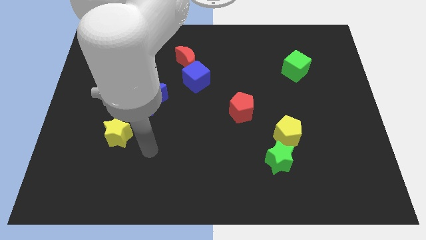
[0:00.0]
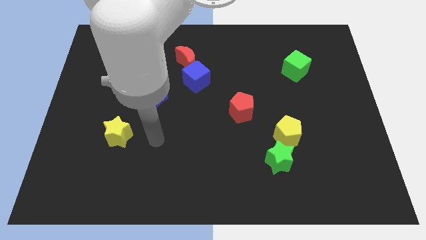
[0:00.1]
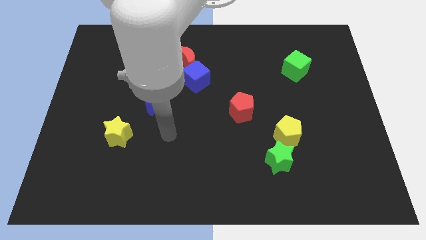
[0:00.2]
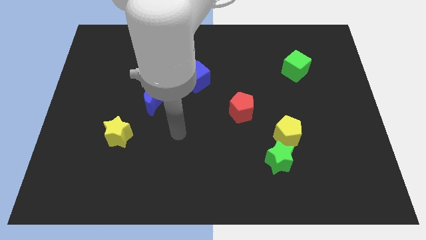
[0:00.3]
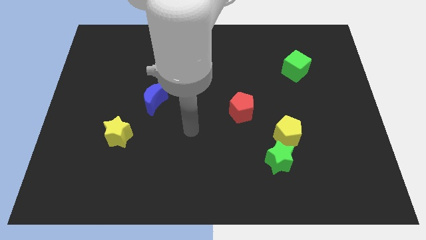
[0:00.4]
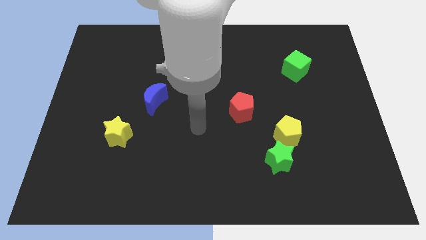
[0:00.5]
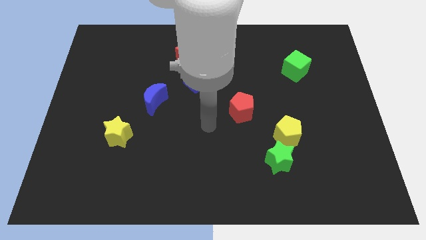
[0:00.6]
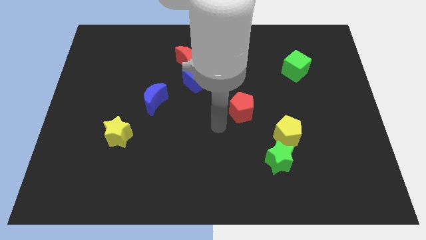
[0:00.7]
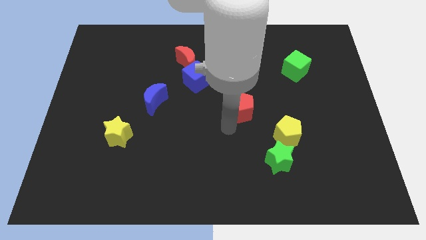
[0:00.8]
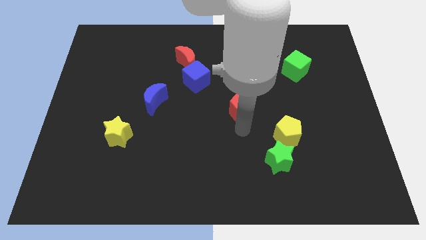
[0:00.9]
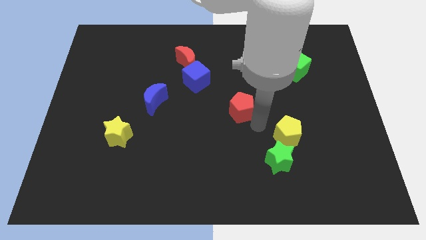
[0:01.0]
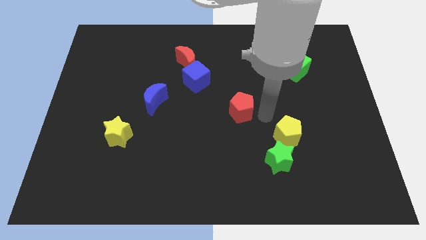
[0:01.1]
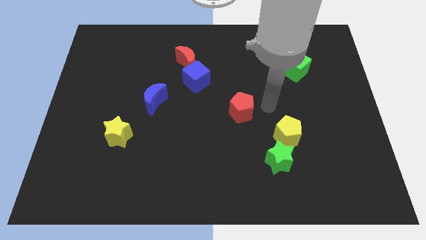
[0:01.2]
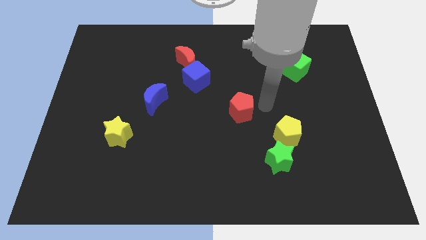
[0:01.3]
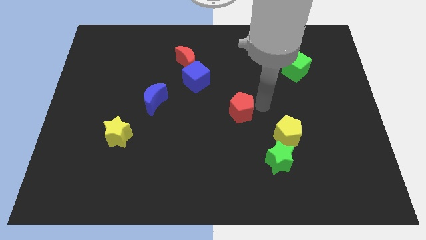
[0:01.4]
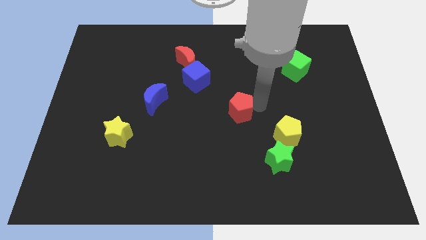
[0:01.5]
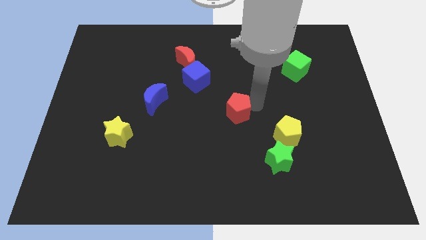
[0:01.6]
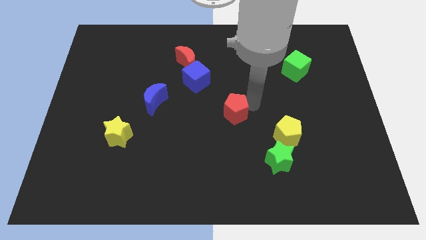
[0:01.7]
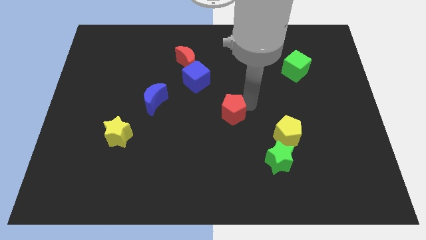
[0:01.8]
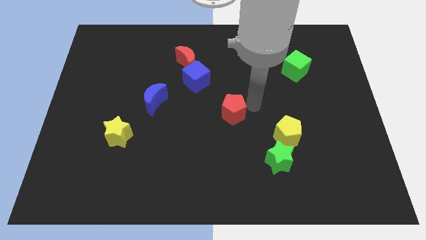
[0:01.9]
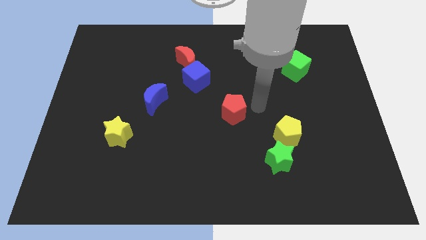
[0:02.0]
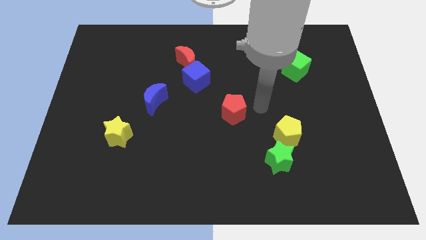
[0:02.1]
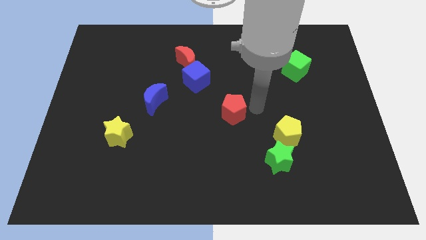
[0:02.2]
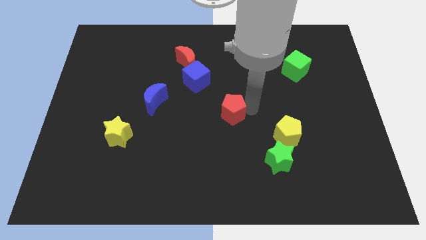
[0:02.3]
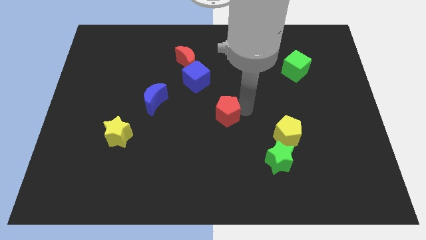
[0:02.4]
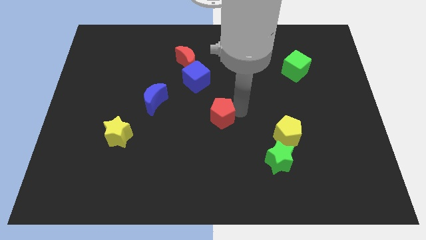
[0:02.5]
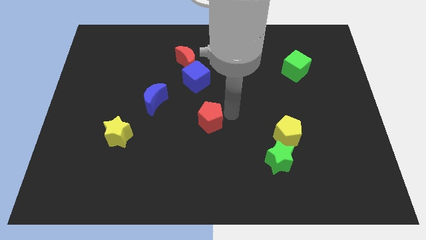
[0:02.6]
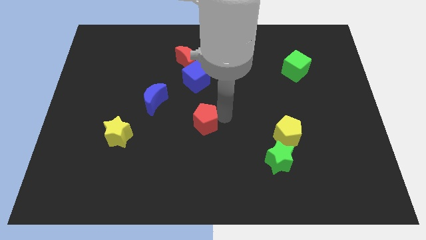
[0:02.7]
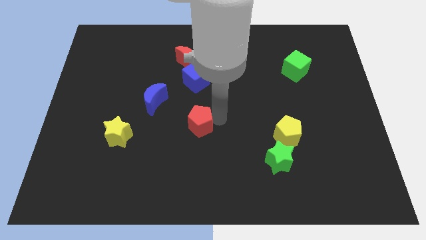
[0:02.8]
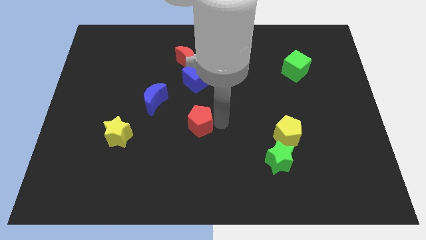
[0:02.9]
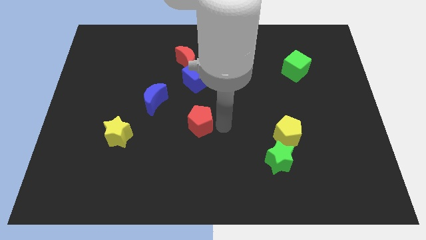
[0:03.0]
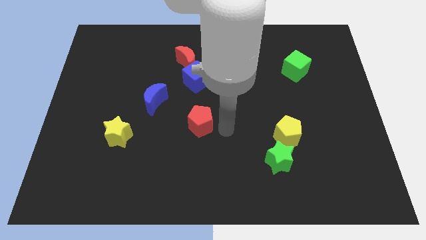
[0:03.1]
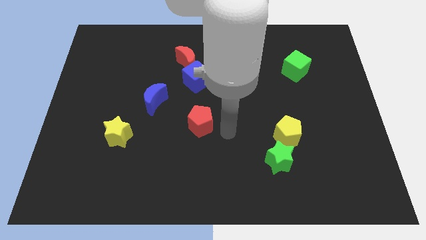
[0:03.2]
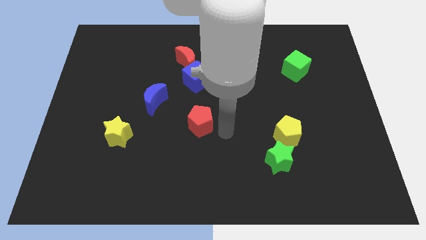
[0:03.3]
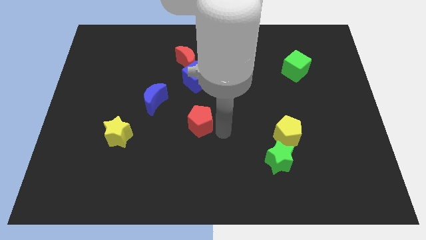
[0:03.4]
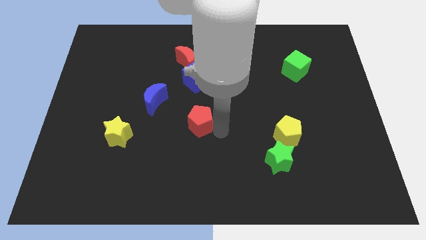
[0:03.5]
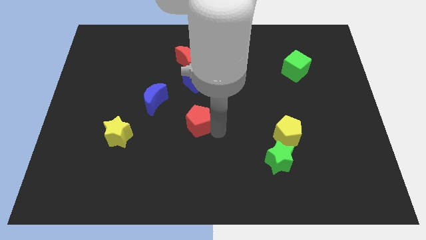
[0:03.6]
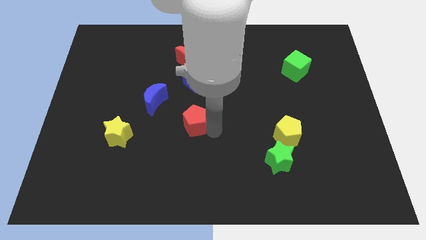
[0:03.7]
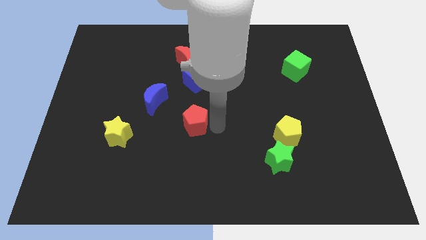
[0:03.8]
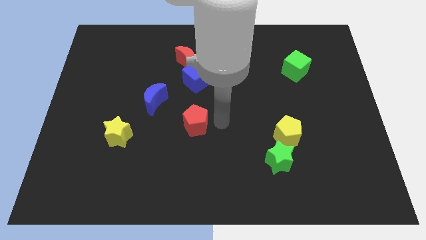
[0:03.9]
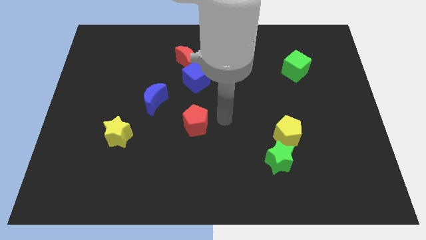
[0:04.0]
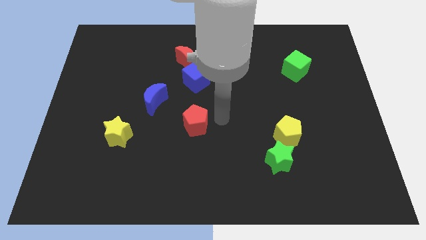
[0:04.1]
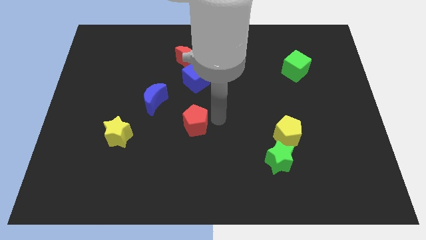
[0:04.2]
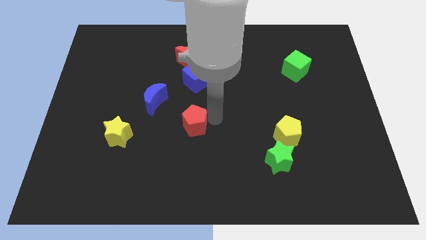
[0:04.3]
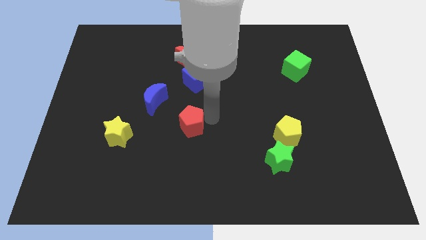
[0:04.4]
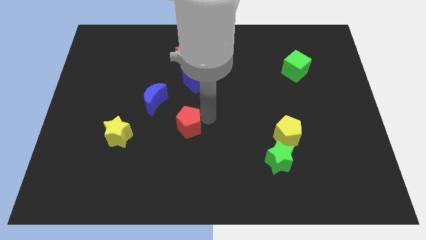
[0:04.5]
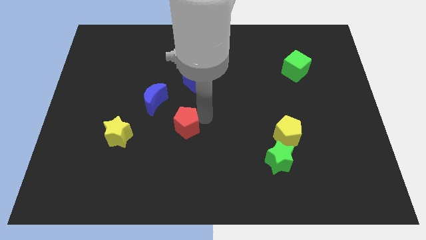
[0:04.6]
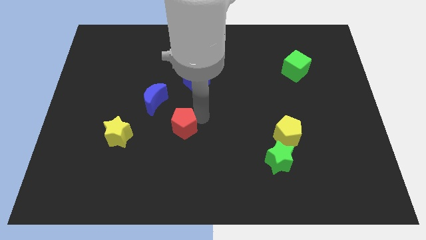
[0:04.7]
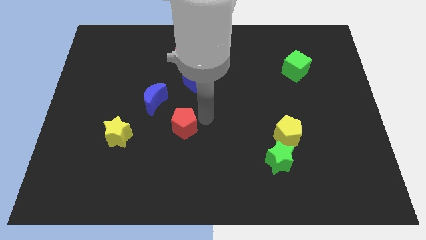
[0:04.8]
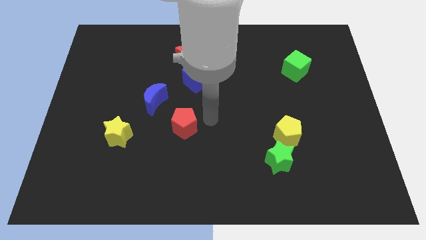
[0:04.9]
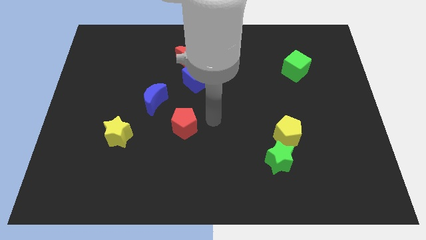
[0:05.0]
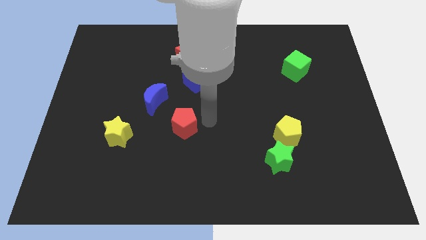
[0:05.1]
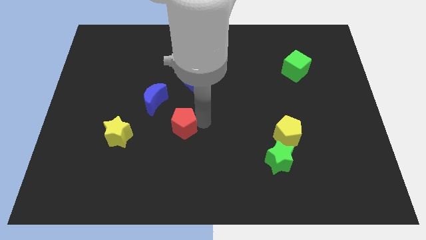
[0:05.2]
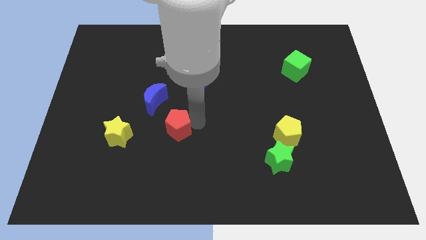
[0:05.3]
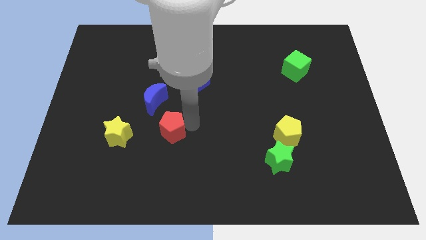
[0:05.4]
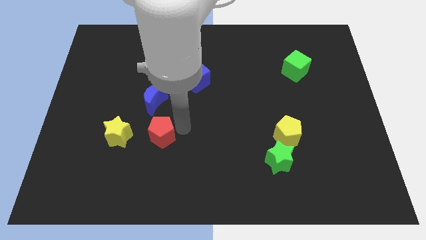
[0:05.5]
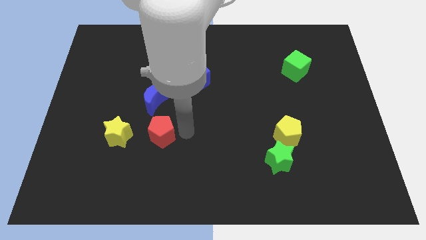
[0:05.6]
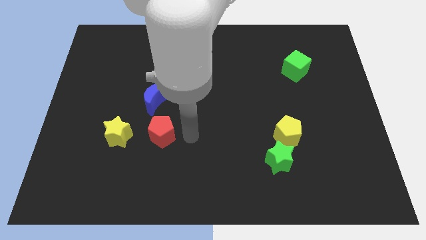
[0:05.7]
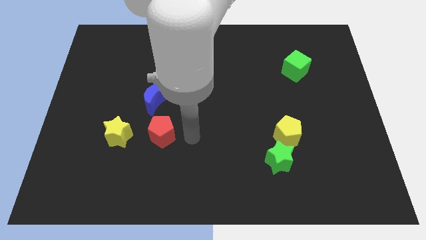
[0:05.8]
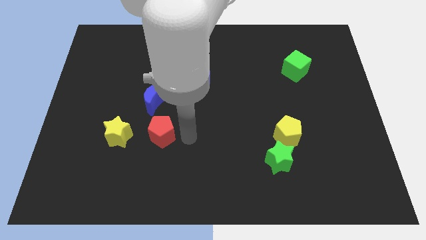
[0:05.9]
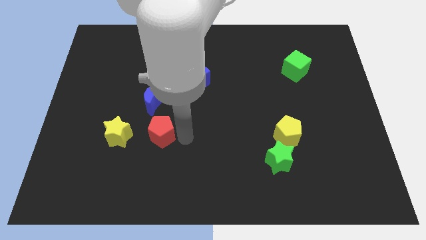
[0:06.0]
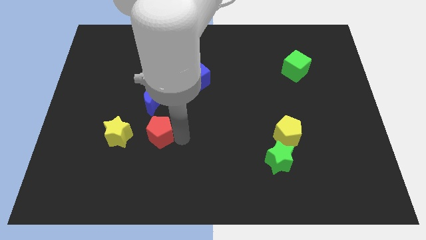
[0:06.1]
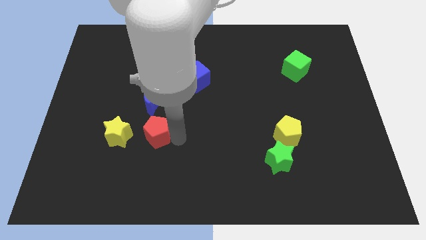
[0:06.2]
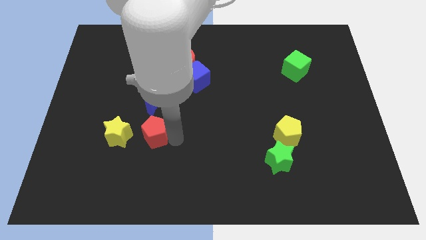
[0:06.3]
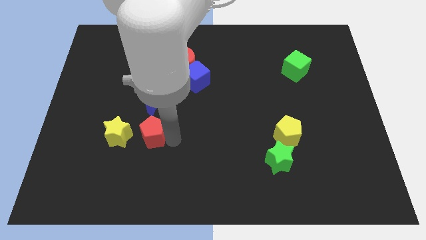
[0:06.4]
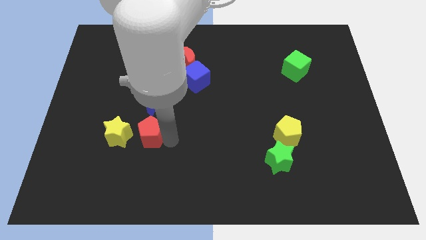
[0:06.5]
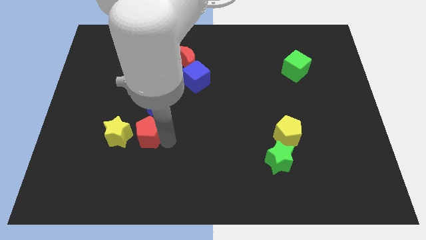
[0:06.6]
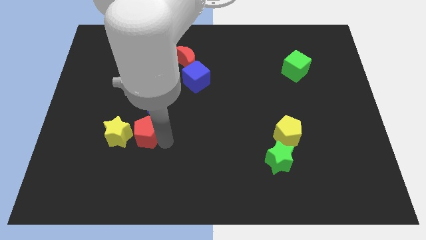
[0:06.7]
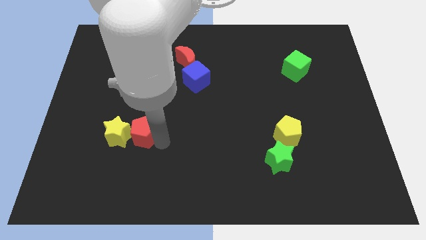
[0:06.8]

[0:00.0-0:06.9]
put the red pentagon to the yellow star

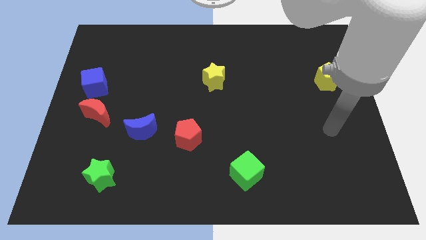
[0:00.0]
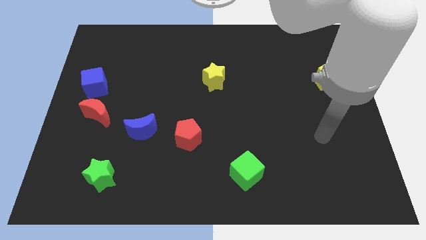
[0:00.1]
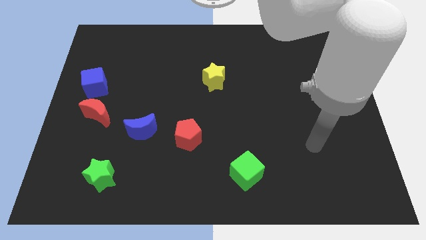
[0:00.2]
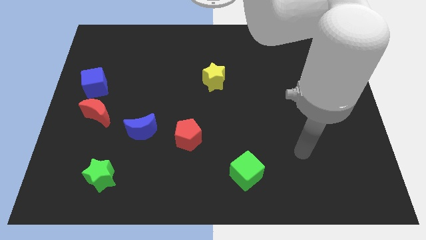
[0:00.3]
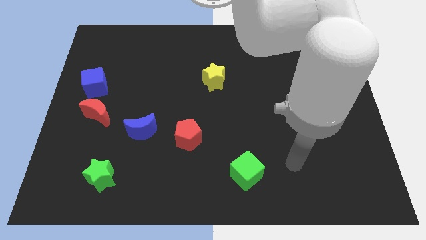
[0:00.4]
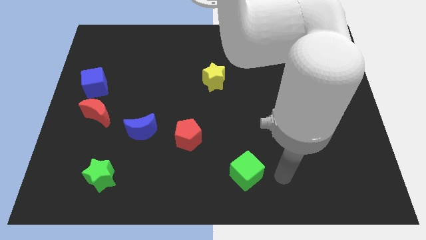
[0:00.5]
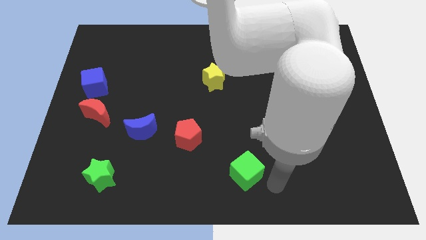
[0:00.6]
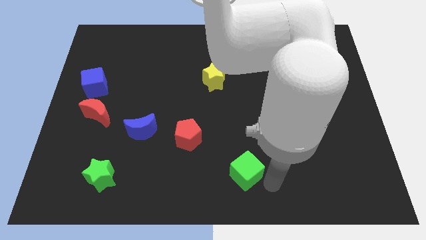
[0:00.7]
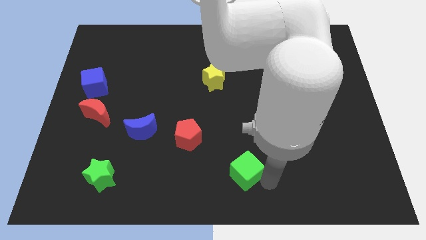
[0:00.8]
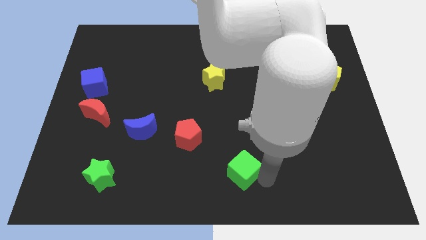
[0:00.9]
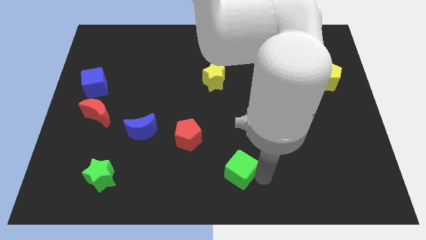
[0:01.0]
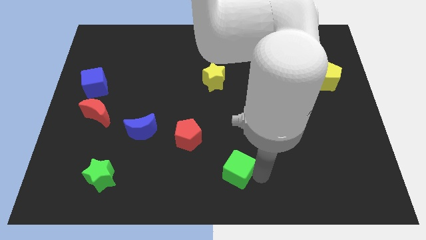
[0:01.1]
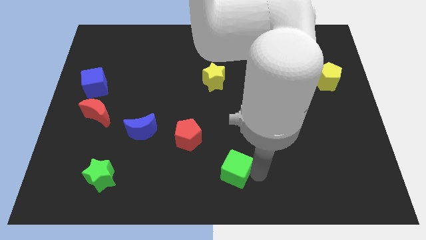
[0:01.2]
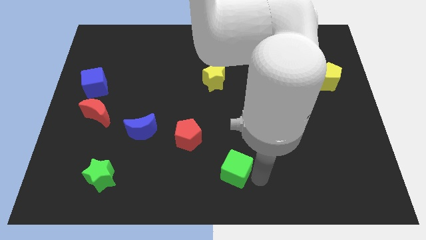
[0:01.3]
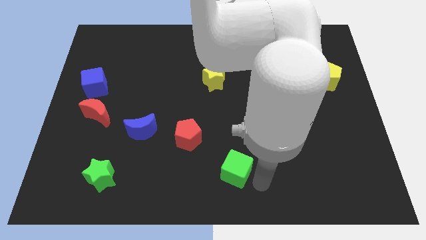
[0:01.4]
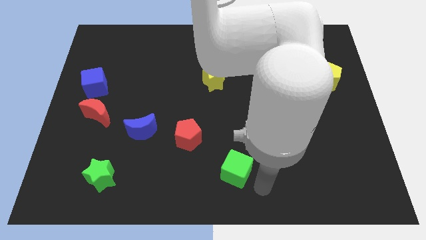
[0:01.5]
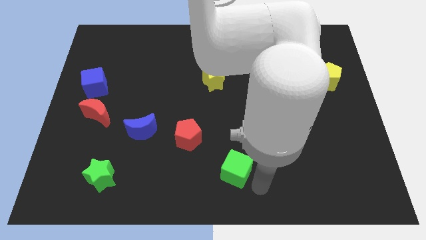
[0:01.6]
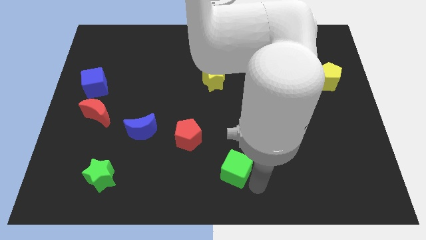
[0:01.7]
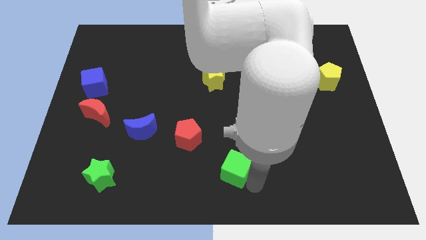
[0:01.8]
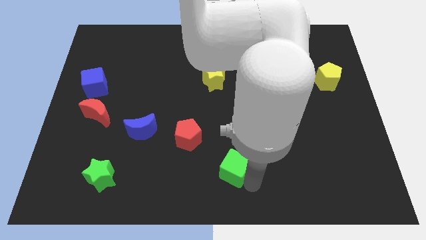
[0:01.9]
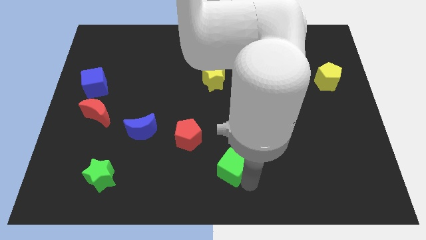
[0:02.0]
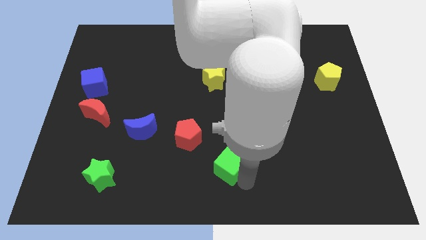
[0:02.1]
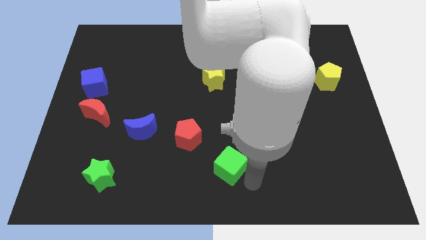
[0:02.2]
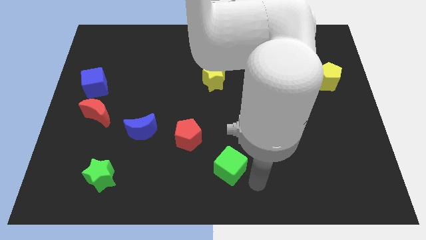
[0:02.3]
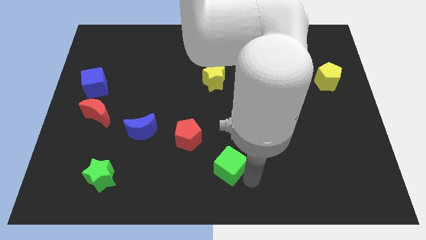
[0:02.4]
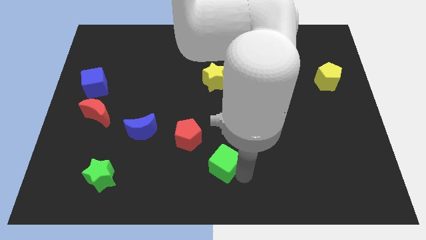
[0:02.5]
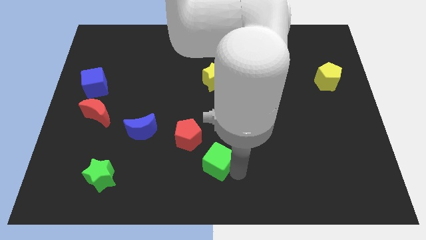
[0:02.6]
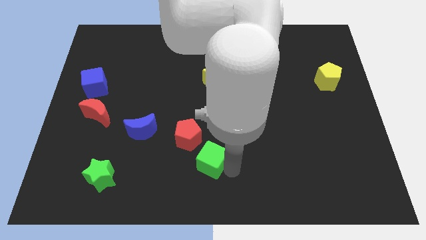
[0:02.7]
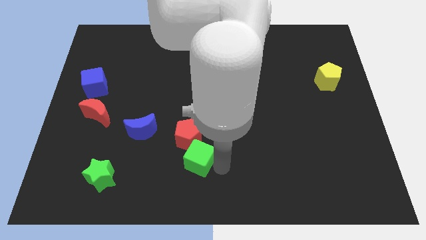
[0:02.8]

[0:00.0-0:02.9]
move the green cube next to the red pentagon
